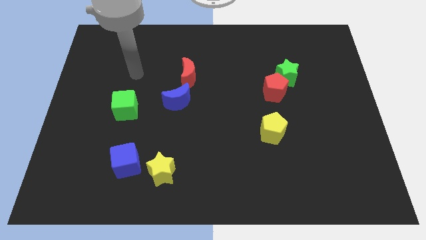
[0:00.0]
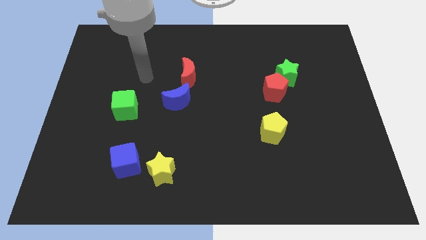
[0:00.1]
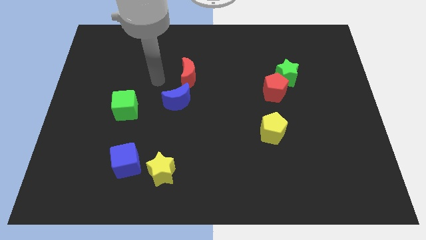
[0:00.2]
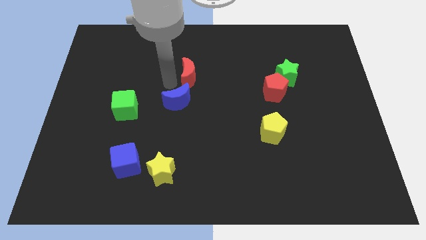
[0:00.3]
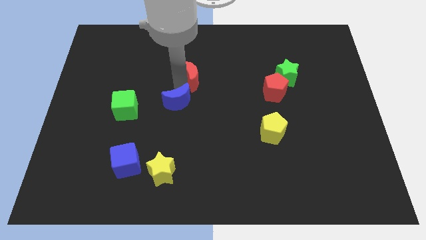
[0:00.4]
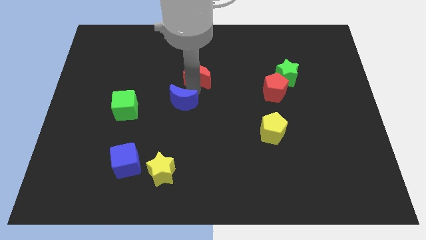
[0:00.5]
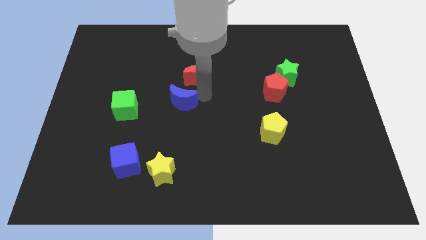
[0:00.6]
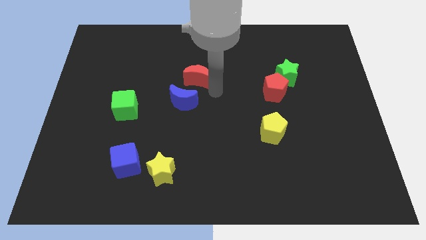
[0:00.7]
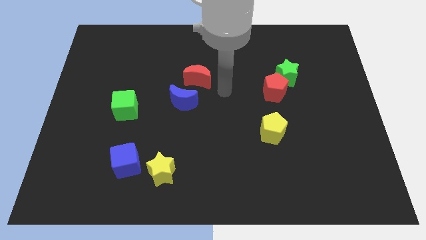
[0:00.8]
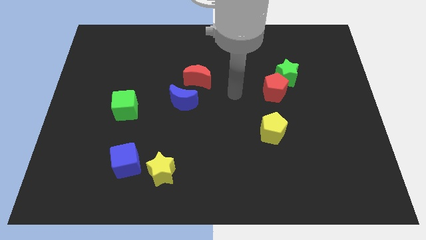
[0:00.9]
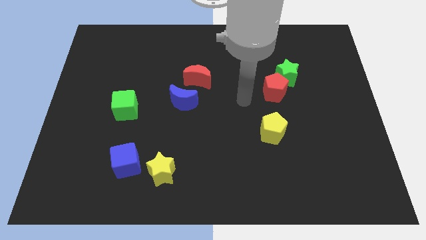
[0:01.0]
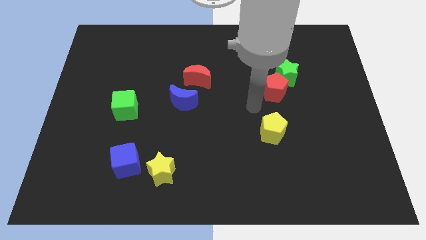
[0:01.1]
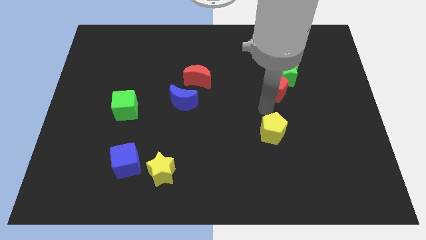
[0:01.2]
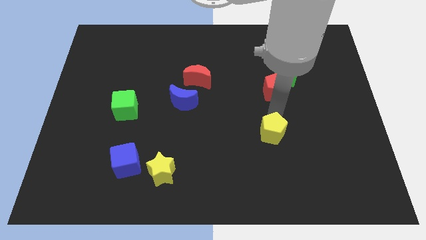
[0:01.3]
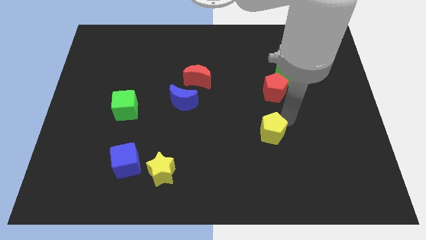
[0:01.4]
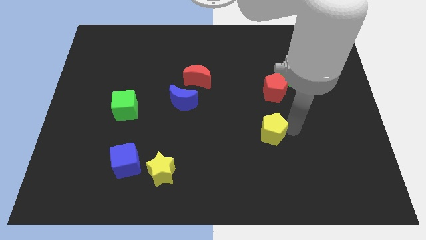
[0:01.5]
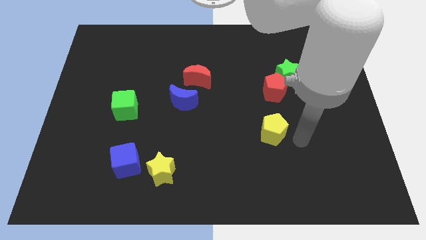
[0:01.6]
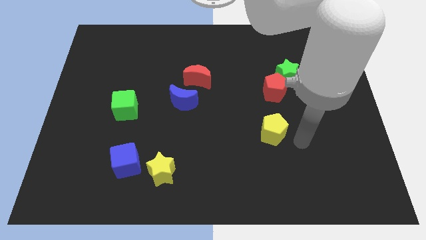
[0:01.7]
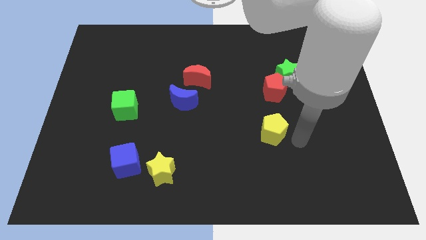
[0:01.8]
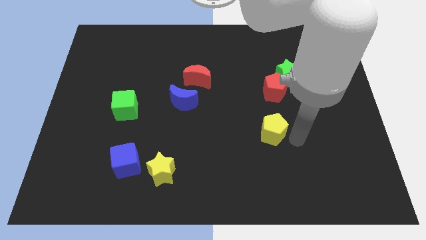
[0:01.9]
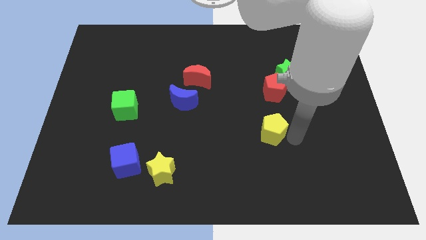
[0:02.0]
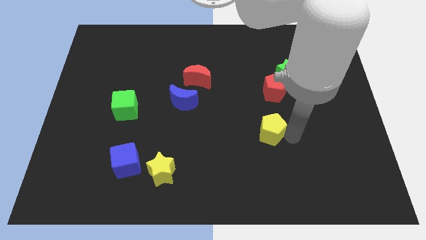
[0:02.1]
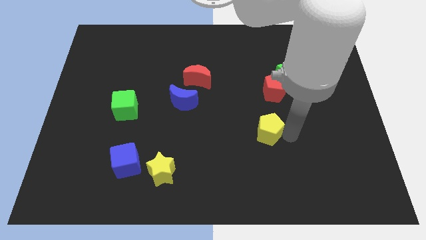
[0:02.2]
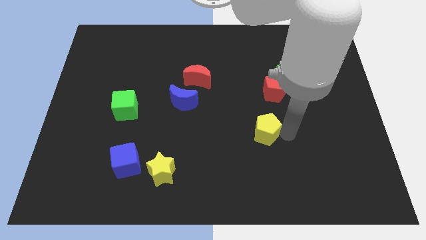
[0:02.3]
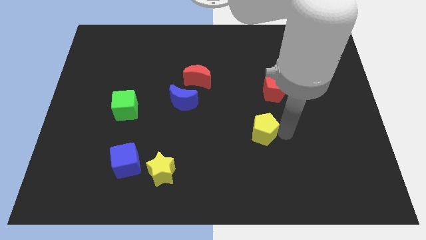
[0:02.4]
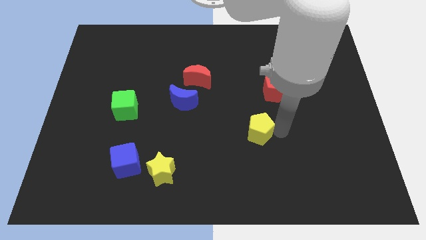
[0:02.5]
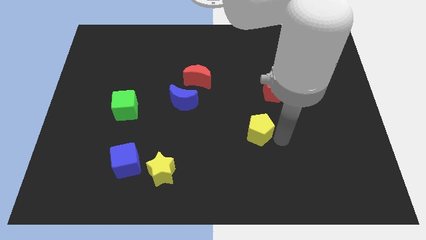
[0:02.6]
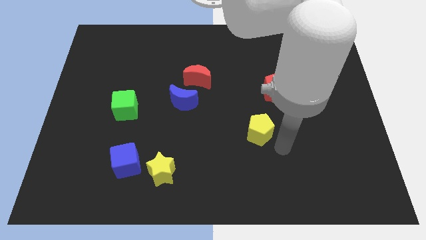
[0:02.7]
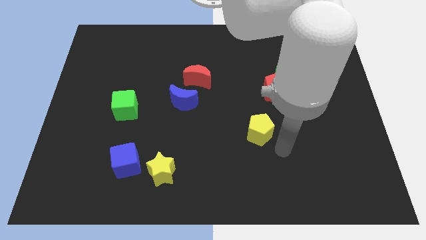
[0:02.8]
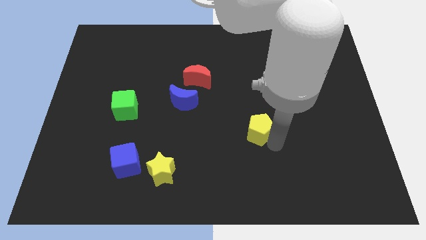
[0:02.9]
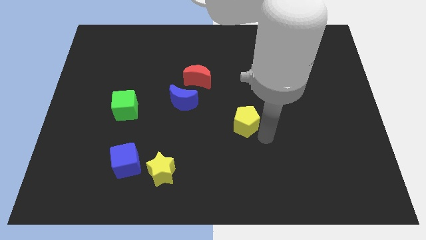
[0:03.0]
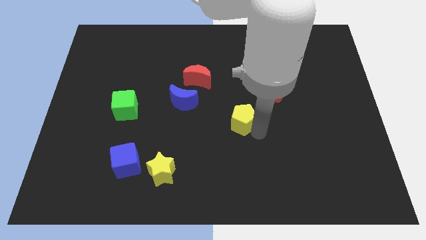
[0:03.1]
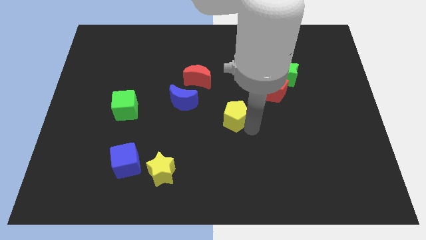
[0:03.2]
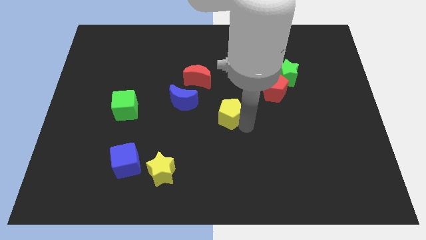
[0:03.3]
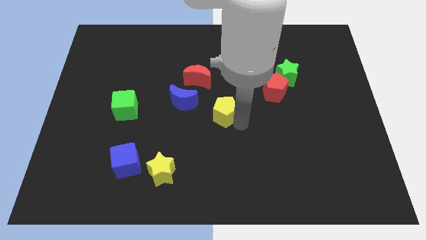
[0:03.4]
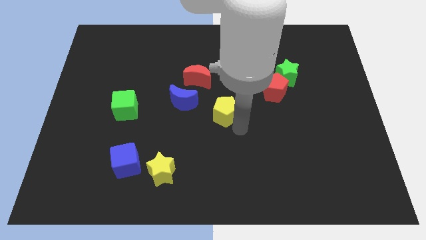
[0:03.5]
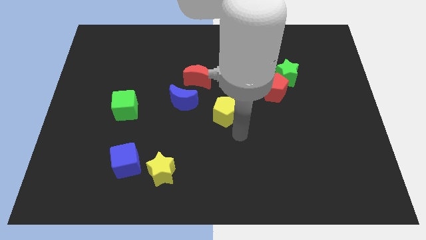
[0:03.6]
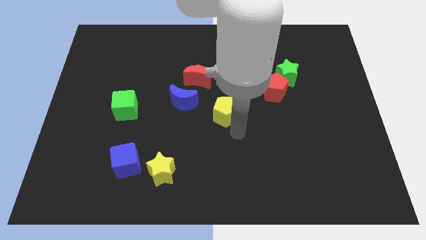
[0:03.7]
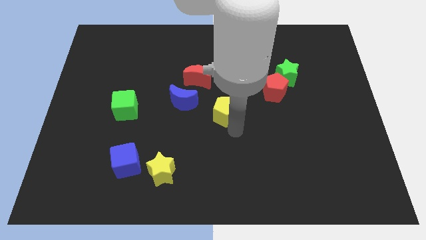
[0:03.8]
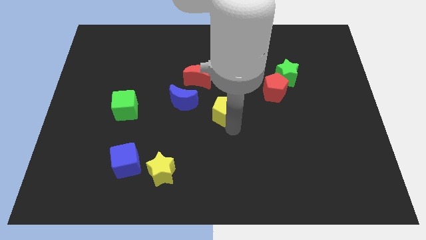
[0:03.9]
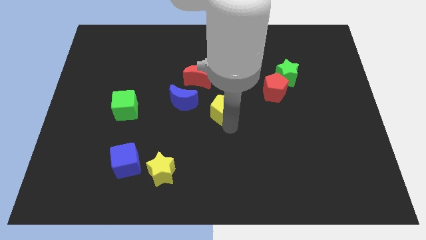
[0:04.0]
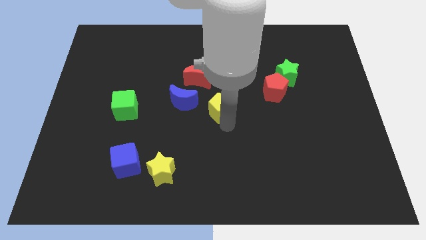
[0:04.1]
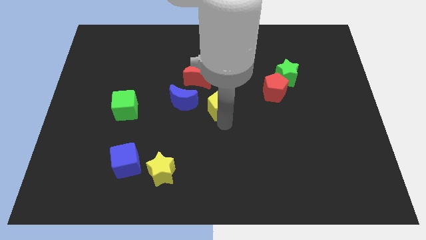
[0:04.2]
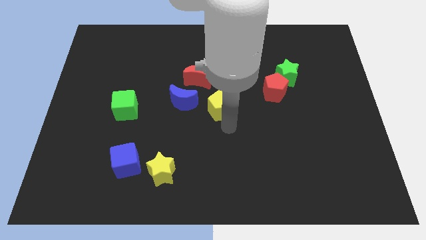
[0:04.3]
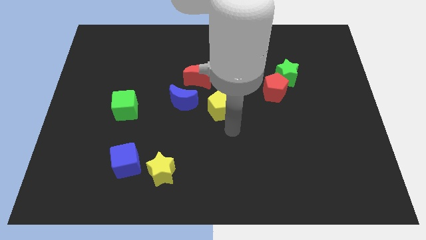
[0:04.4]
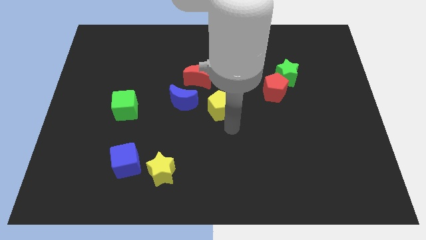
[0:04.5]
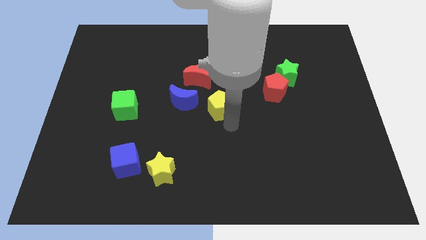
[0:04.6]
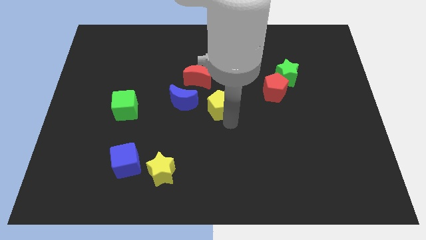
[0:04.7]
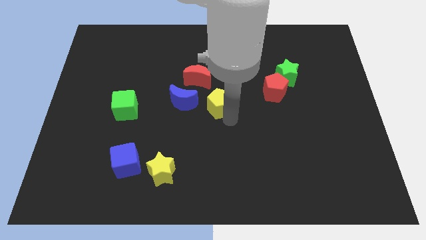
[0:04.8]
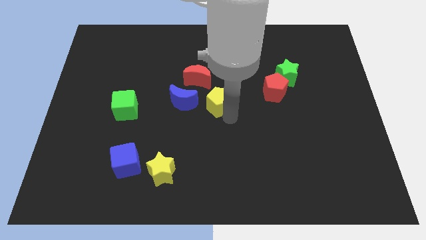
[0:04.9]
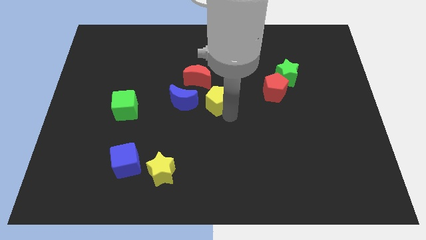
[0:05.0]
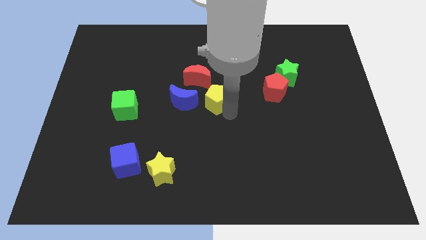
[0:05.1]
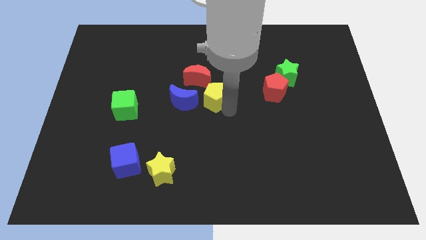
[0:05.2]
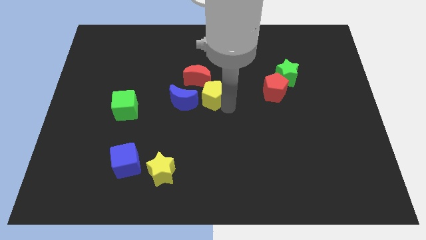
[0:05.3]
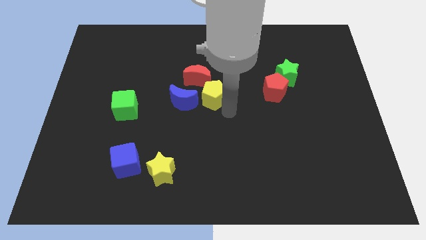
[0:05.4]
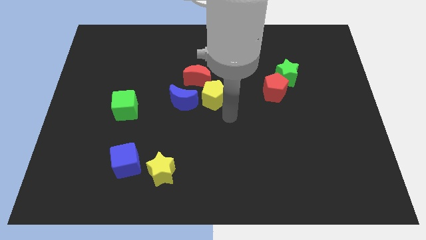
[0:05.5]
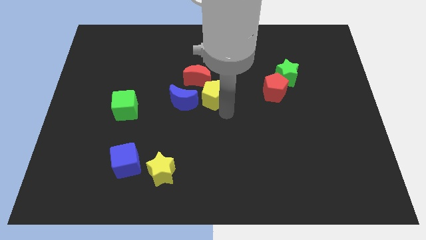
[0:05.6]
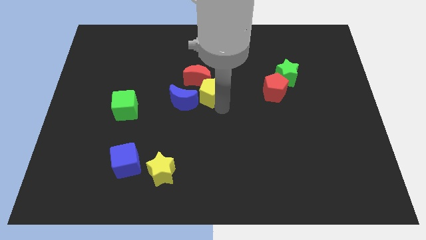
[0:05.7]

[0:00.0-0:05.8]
put the yellow pentagon next to the red moon

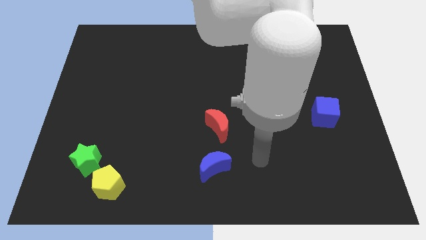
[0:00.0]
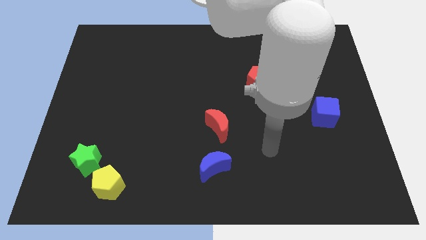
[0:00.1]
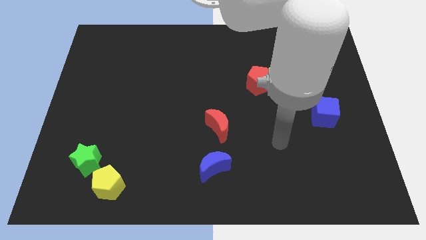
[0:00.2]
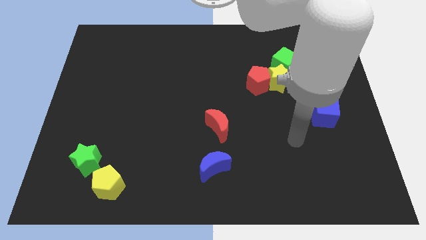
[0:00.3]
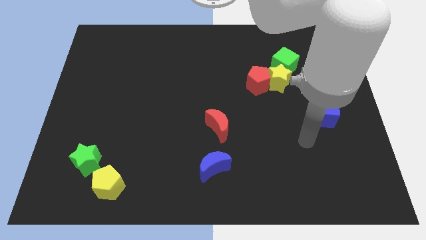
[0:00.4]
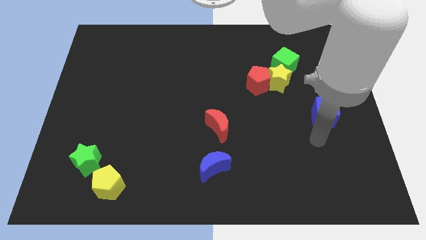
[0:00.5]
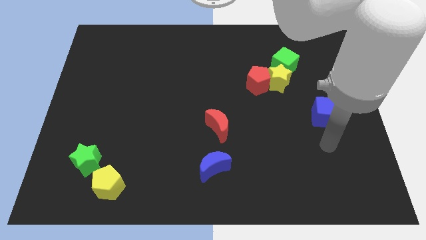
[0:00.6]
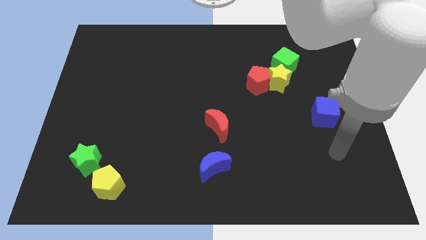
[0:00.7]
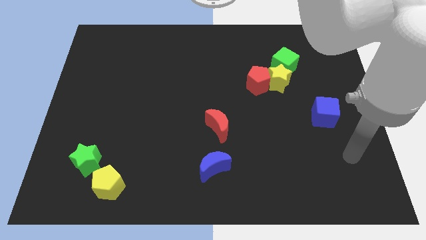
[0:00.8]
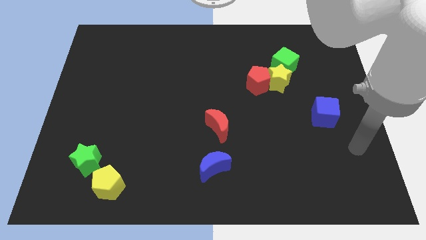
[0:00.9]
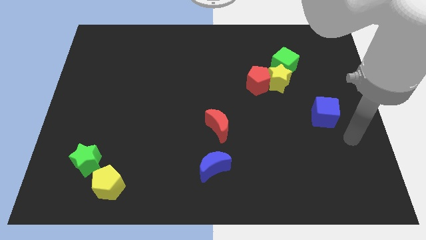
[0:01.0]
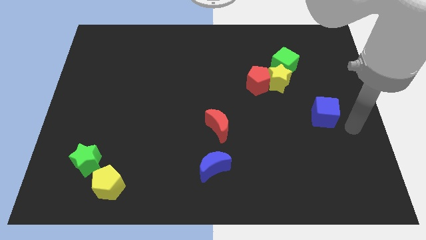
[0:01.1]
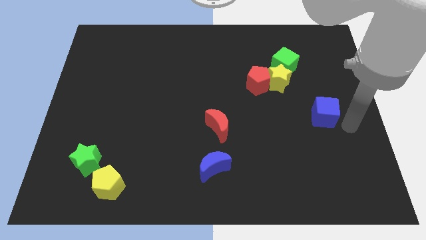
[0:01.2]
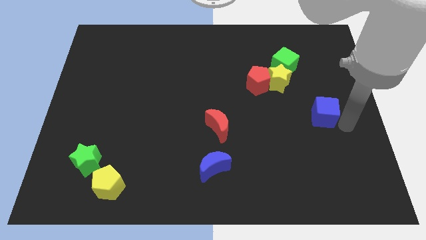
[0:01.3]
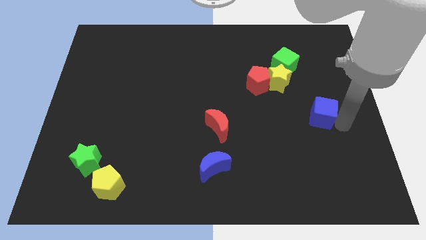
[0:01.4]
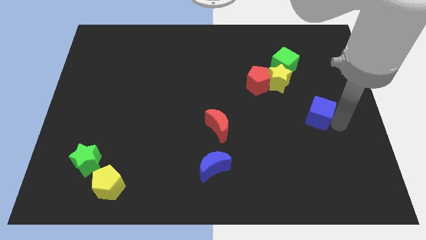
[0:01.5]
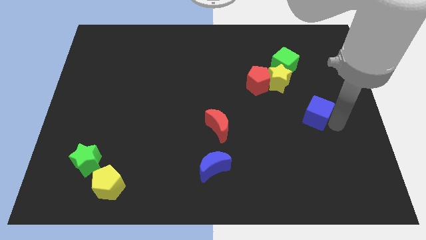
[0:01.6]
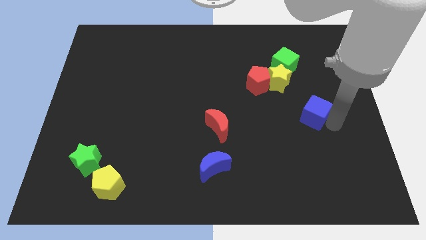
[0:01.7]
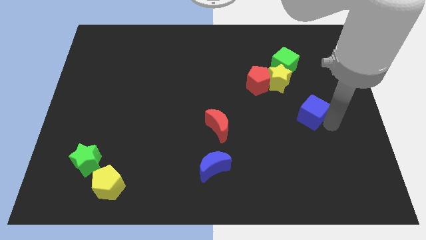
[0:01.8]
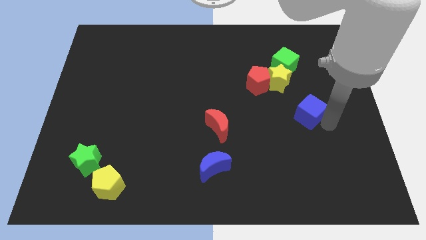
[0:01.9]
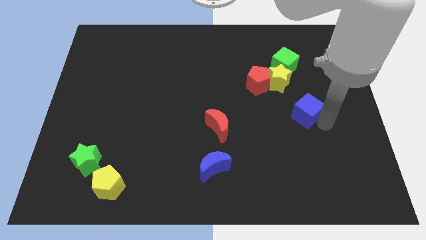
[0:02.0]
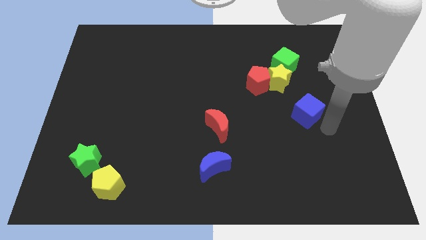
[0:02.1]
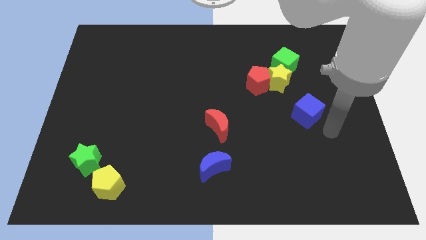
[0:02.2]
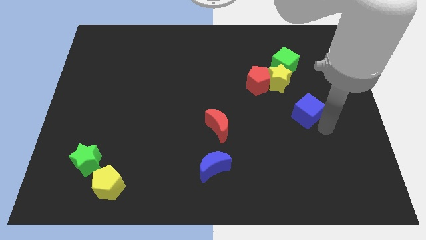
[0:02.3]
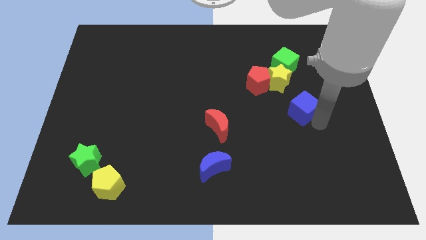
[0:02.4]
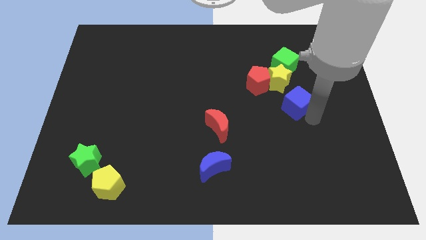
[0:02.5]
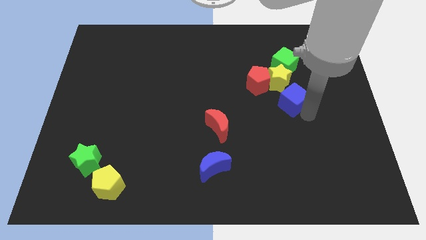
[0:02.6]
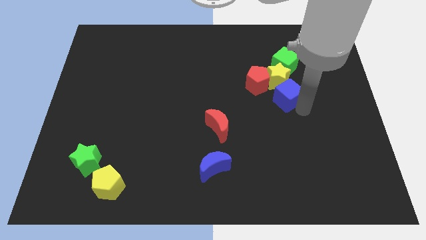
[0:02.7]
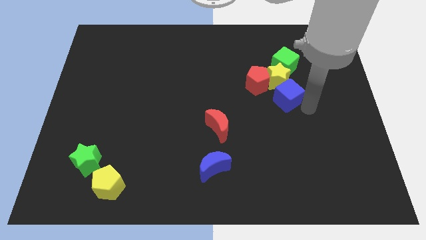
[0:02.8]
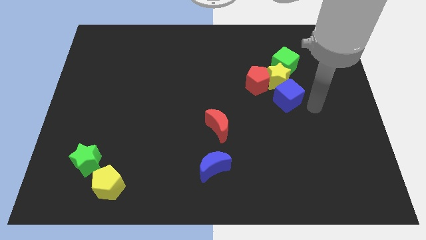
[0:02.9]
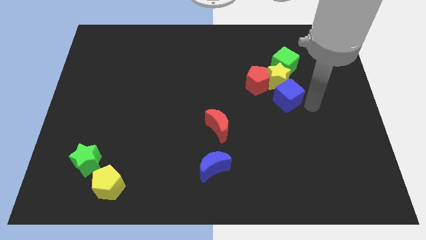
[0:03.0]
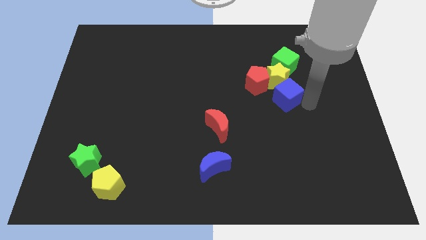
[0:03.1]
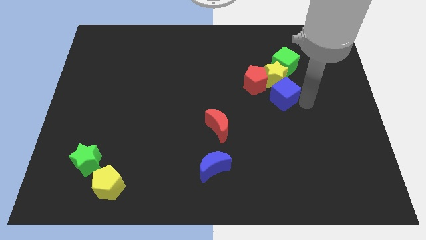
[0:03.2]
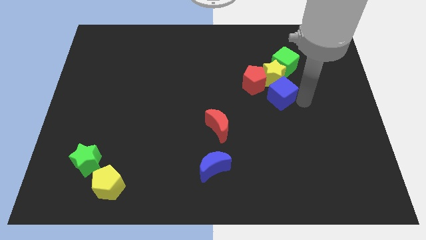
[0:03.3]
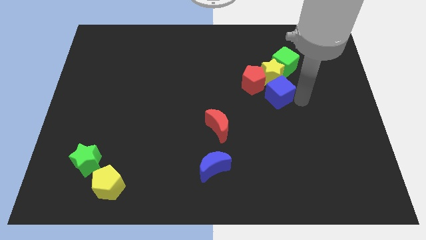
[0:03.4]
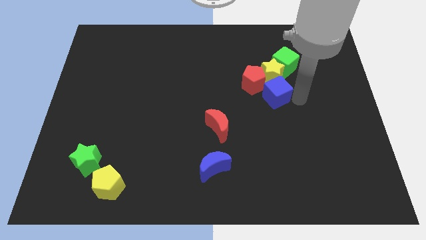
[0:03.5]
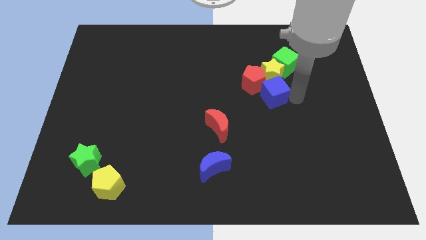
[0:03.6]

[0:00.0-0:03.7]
slide the blue cube towards the red pentagon
